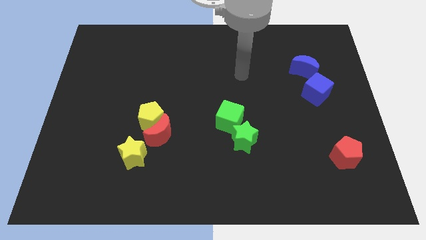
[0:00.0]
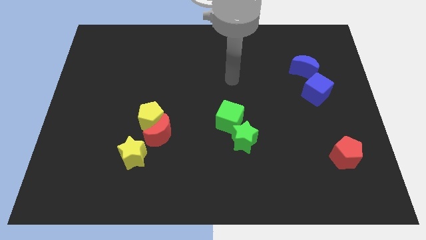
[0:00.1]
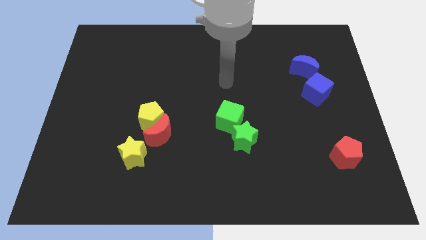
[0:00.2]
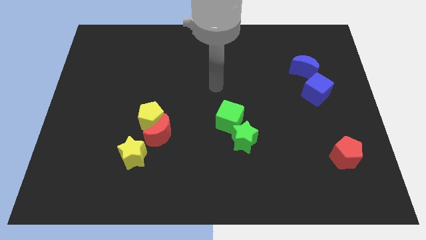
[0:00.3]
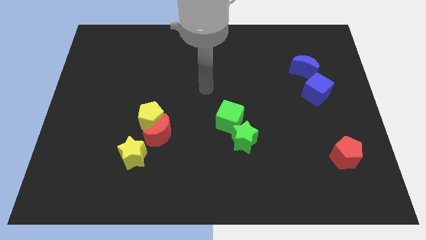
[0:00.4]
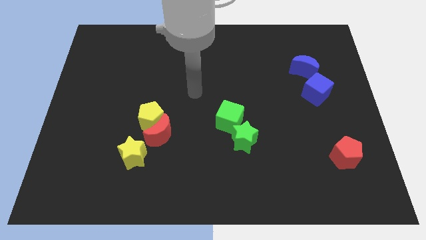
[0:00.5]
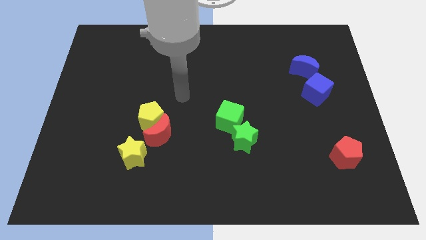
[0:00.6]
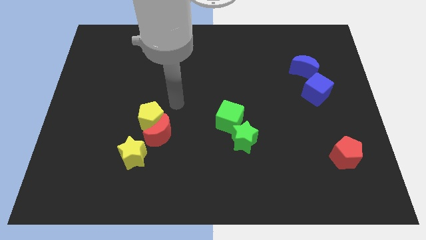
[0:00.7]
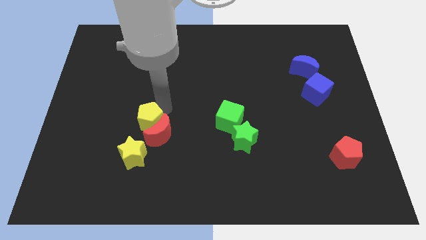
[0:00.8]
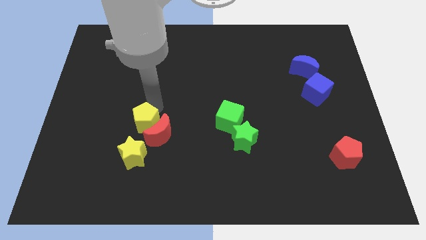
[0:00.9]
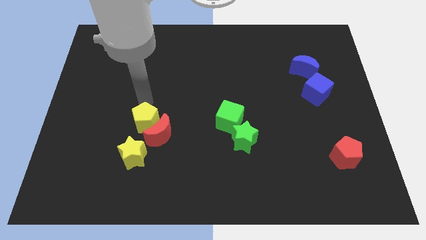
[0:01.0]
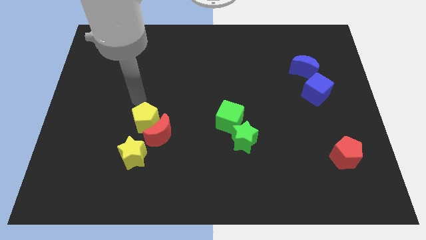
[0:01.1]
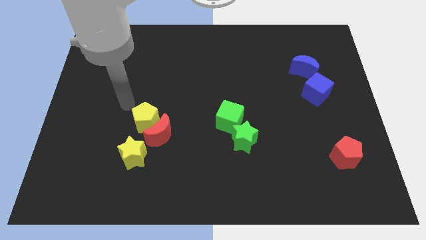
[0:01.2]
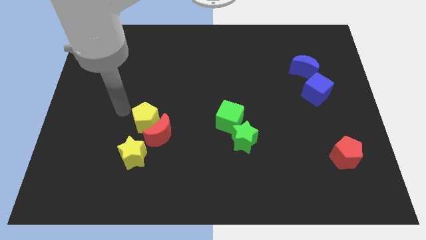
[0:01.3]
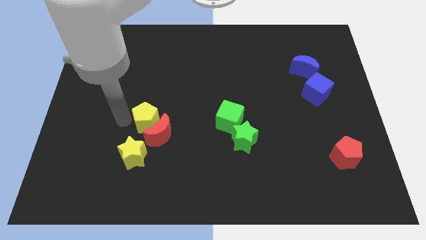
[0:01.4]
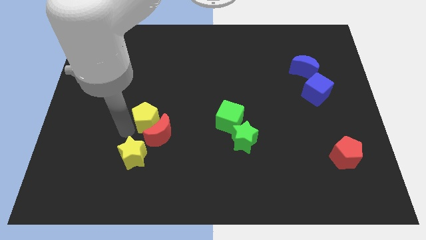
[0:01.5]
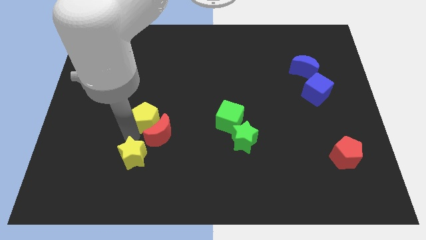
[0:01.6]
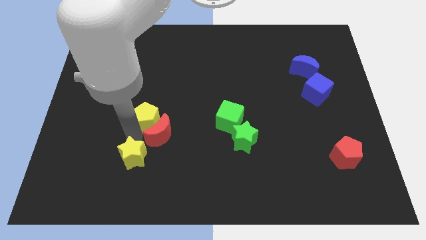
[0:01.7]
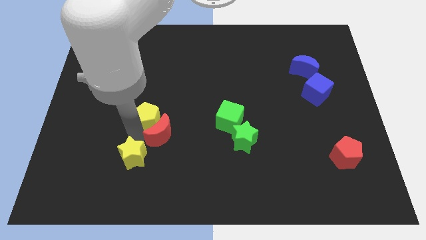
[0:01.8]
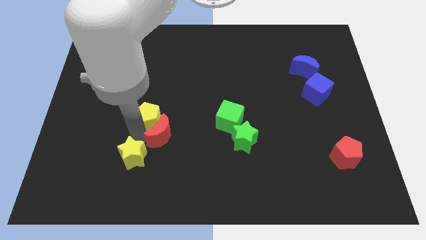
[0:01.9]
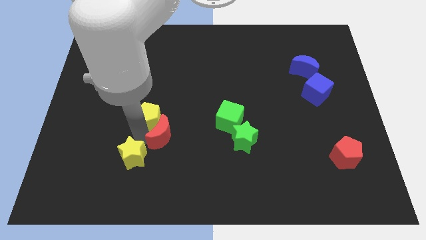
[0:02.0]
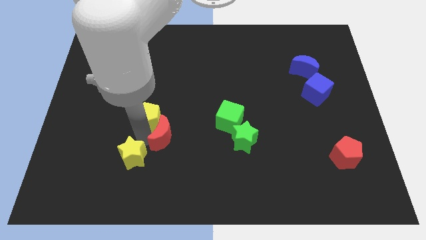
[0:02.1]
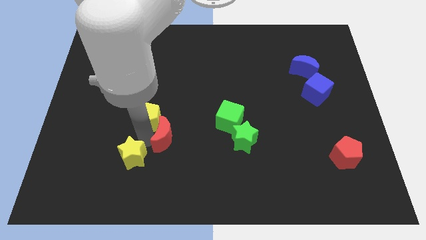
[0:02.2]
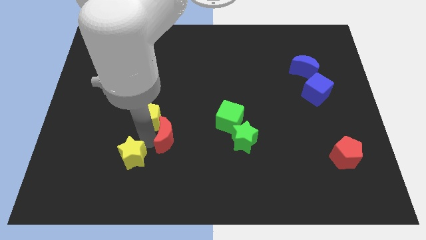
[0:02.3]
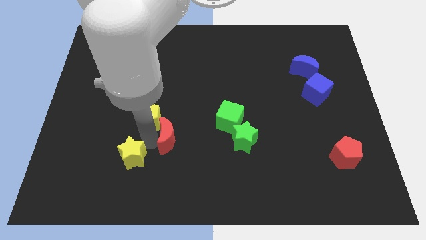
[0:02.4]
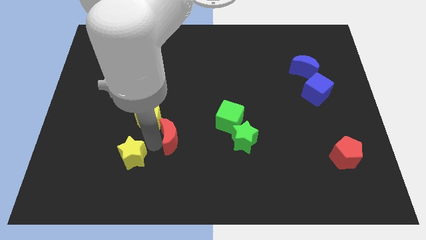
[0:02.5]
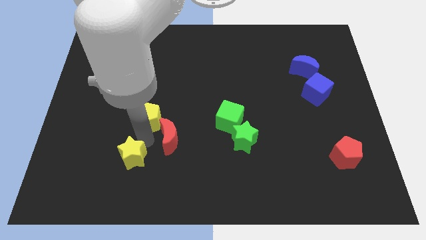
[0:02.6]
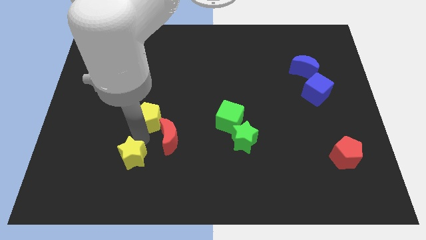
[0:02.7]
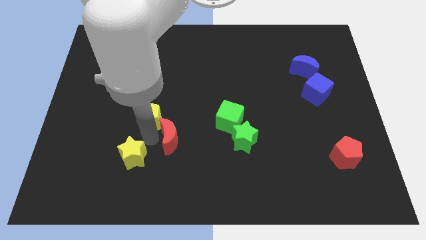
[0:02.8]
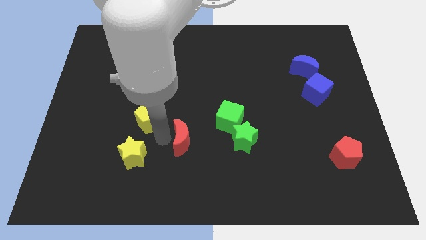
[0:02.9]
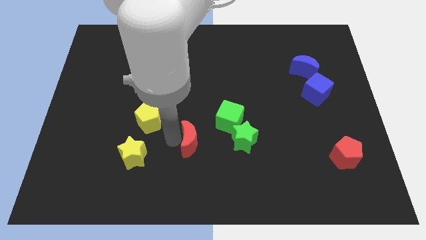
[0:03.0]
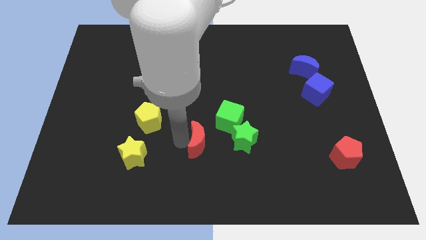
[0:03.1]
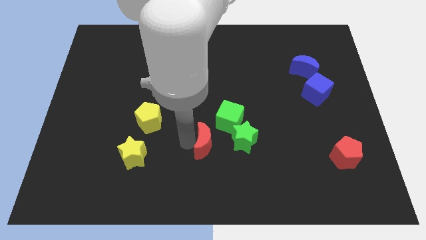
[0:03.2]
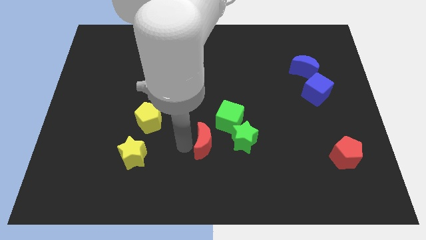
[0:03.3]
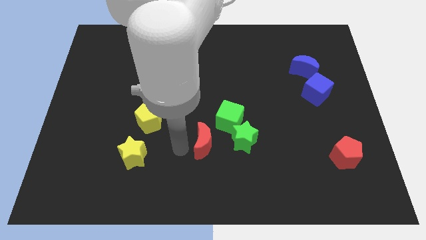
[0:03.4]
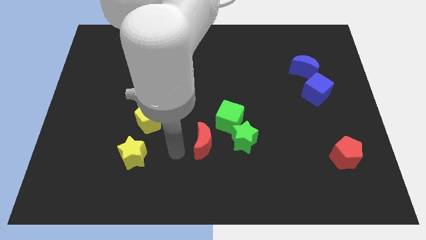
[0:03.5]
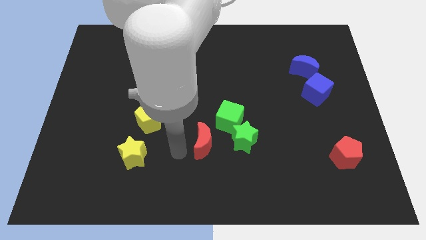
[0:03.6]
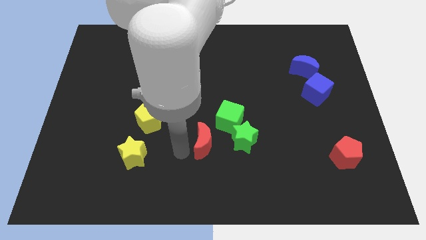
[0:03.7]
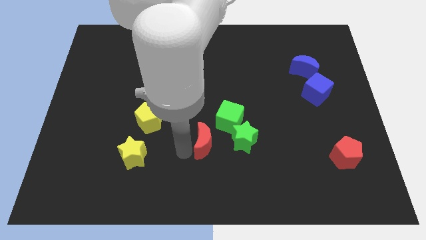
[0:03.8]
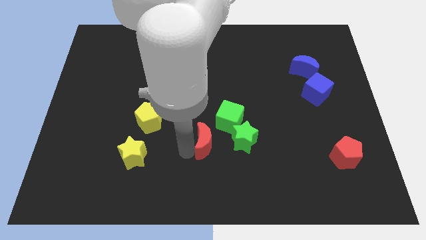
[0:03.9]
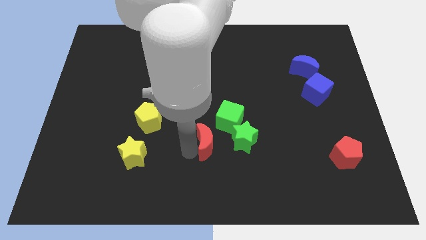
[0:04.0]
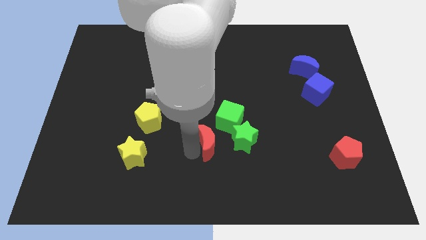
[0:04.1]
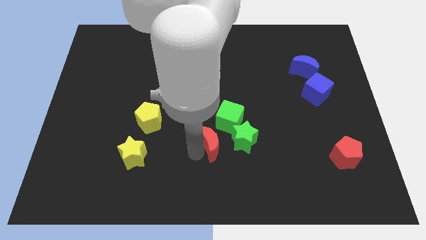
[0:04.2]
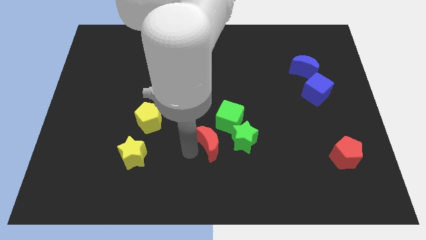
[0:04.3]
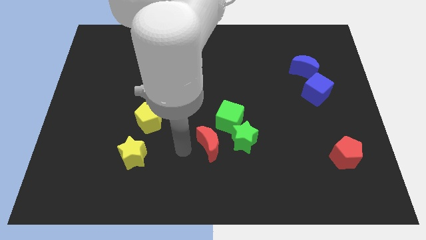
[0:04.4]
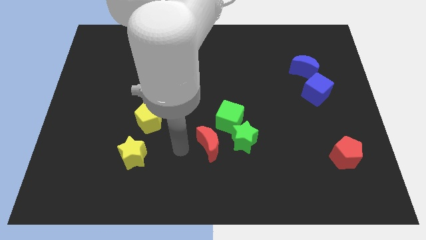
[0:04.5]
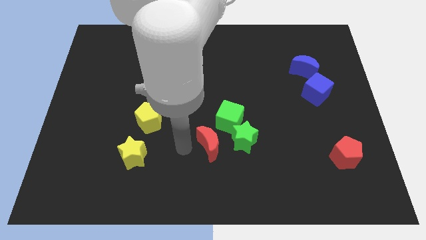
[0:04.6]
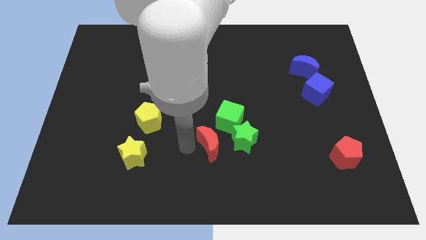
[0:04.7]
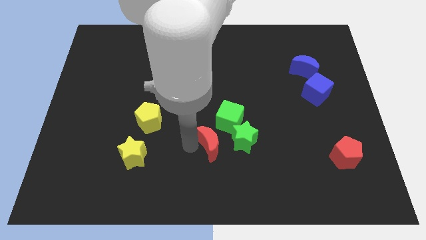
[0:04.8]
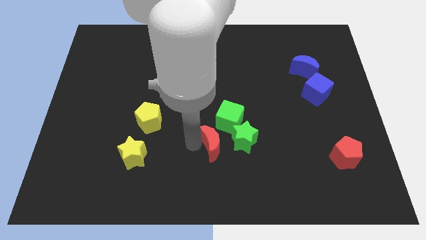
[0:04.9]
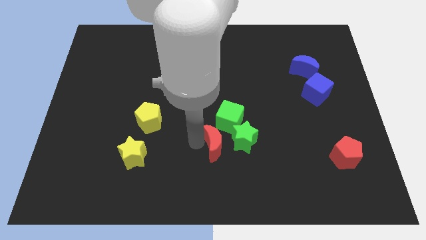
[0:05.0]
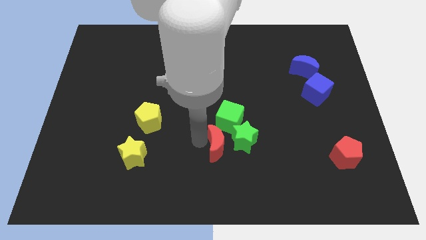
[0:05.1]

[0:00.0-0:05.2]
move the red moon towards the green star

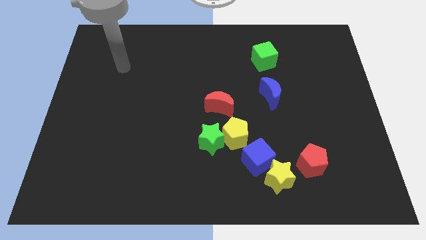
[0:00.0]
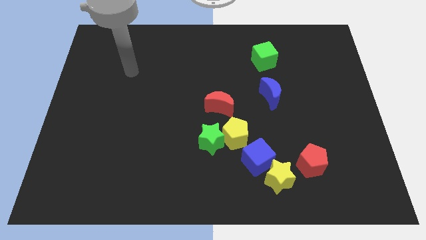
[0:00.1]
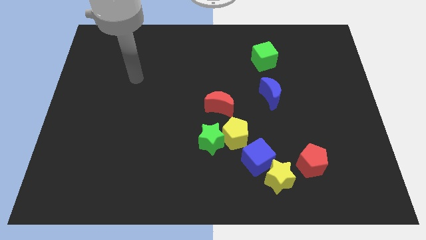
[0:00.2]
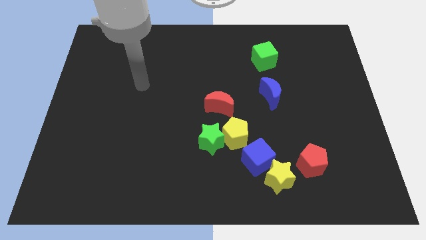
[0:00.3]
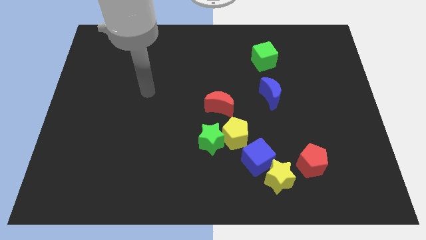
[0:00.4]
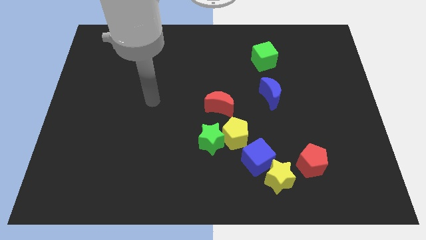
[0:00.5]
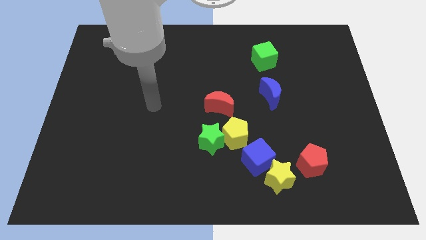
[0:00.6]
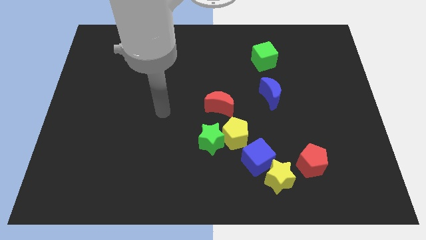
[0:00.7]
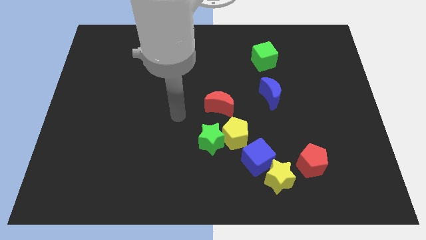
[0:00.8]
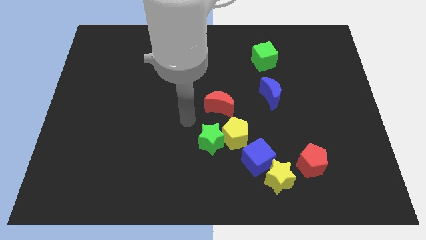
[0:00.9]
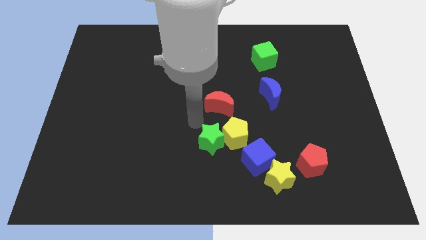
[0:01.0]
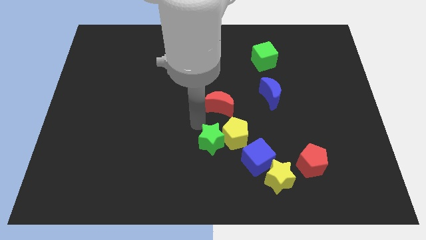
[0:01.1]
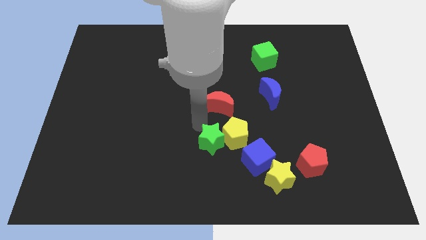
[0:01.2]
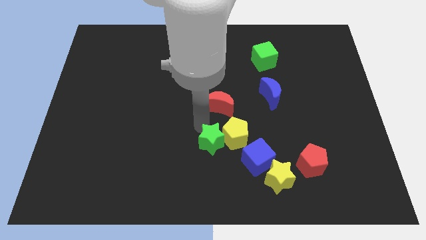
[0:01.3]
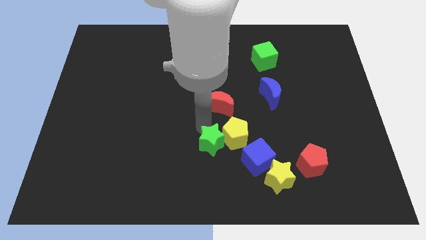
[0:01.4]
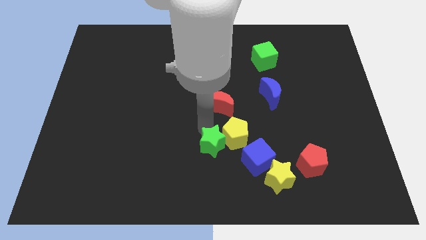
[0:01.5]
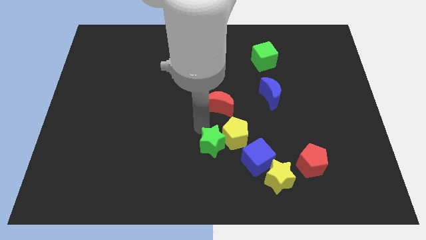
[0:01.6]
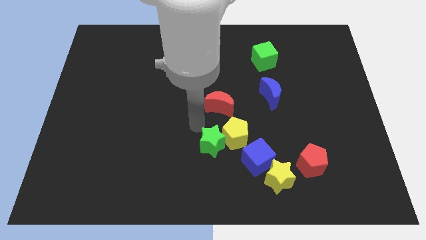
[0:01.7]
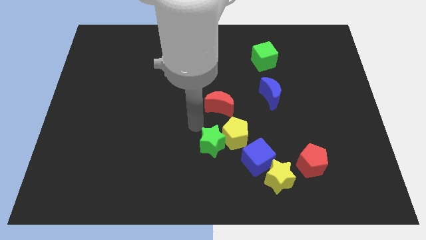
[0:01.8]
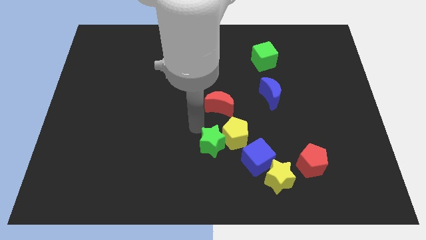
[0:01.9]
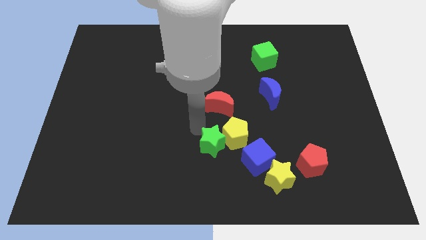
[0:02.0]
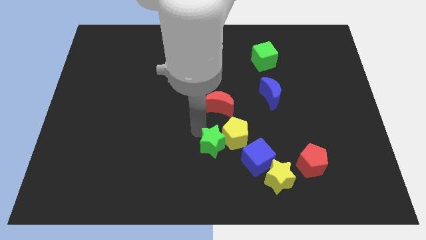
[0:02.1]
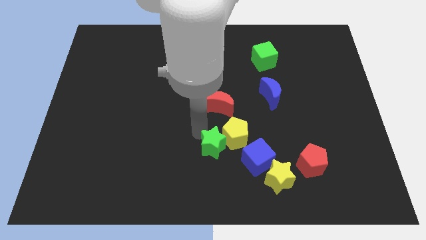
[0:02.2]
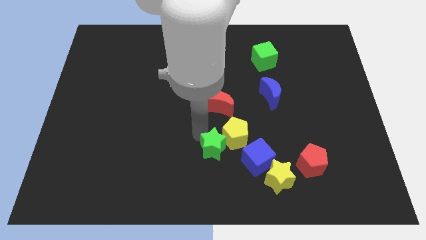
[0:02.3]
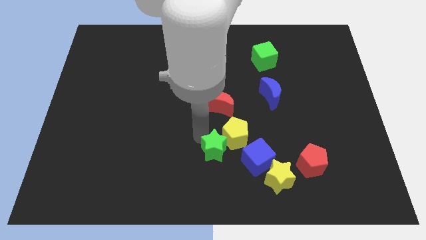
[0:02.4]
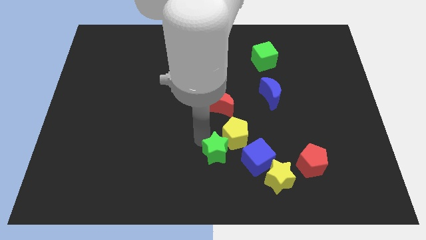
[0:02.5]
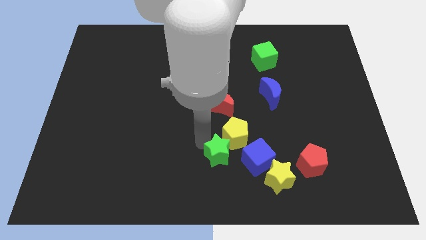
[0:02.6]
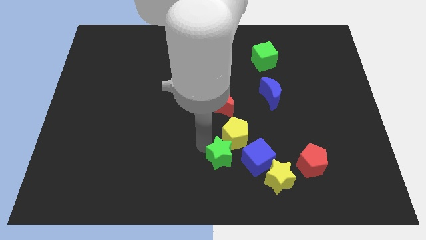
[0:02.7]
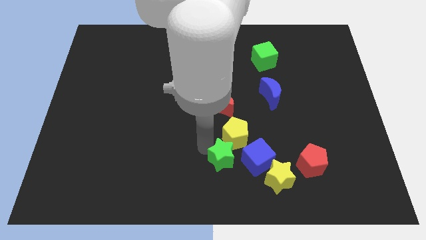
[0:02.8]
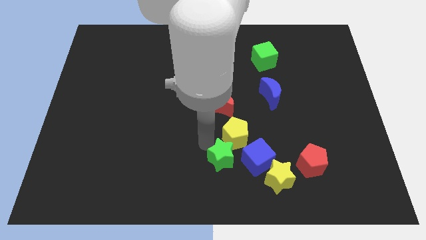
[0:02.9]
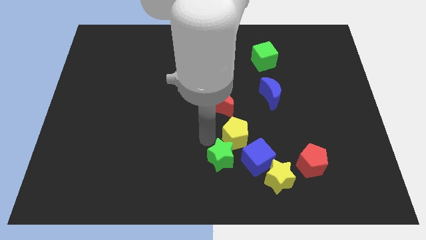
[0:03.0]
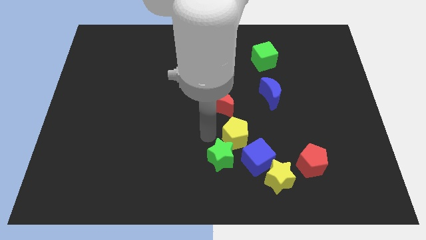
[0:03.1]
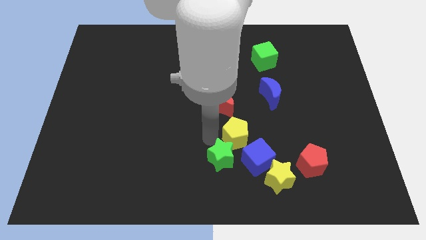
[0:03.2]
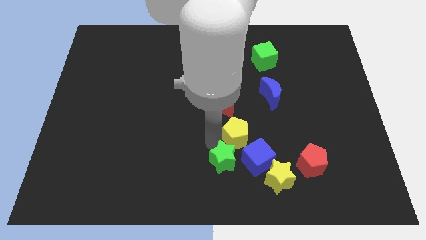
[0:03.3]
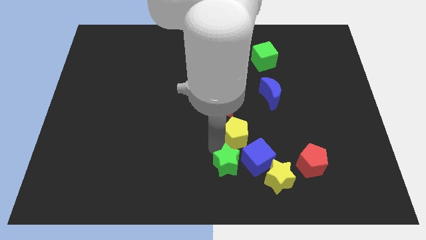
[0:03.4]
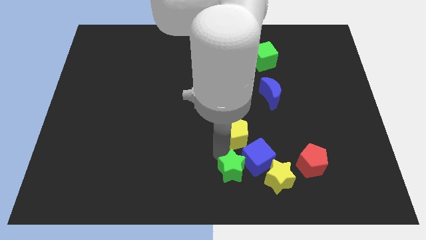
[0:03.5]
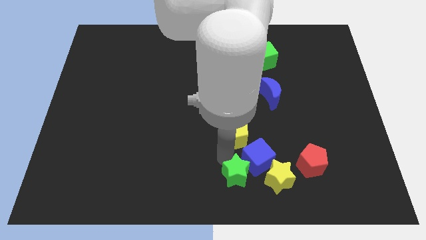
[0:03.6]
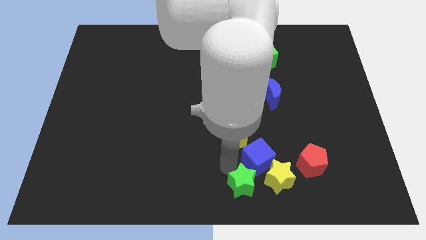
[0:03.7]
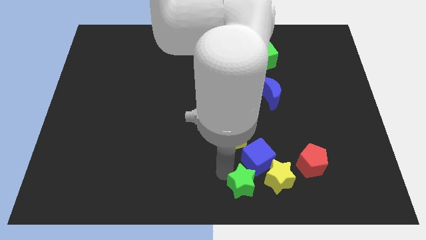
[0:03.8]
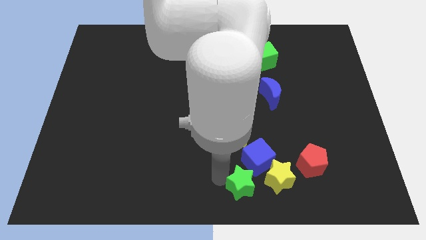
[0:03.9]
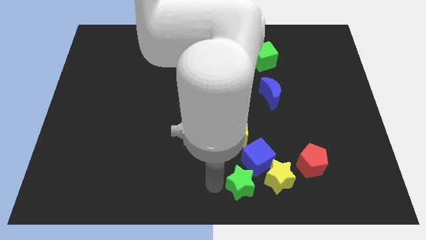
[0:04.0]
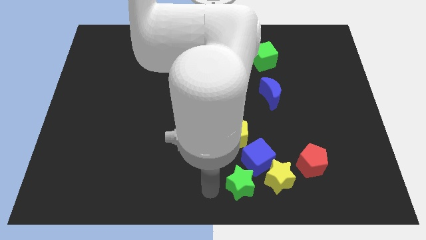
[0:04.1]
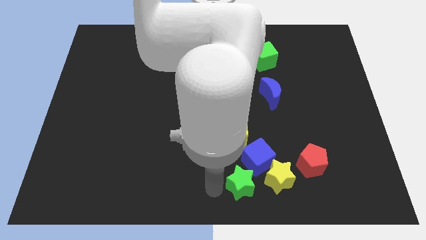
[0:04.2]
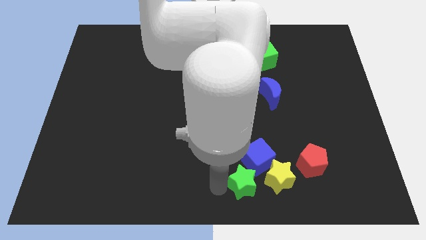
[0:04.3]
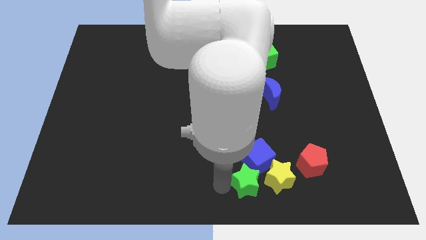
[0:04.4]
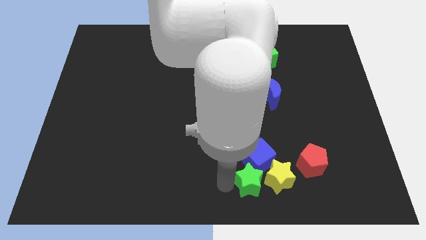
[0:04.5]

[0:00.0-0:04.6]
put the green star close to the yellow star
